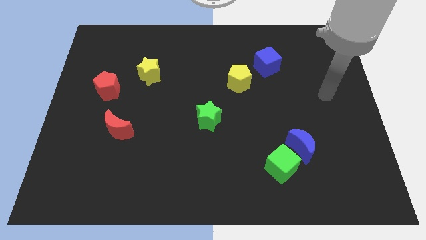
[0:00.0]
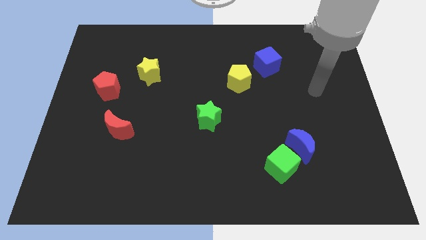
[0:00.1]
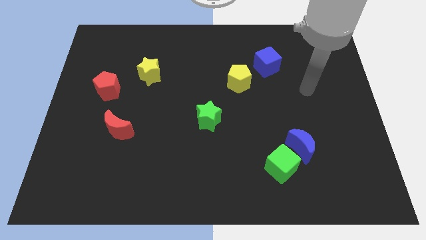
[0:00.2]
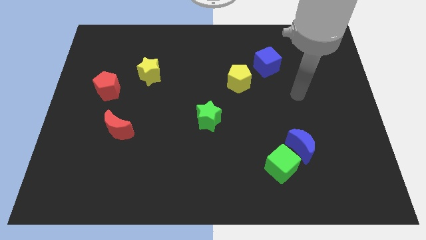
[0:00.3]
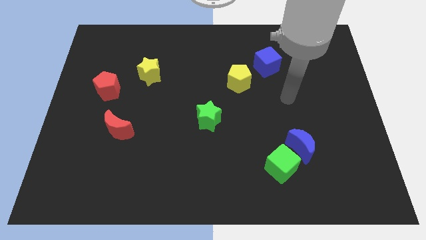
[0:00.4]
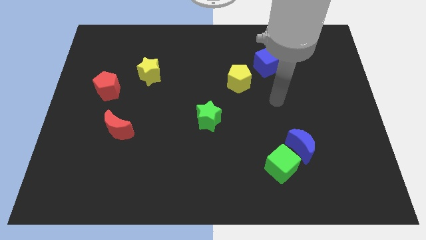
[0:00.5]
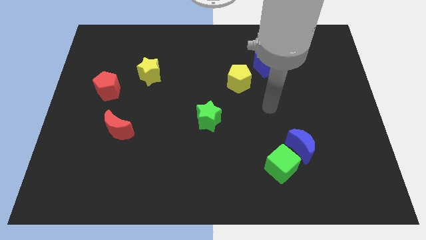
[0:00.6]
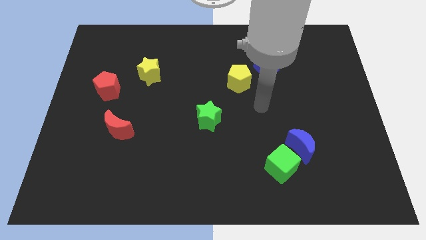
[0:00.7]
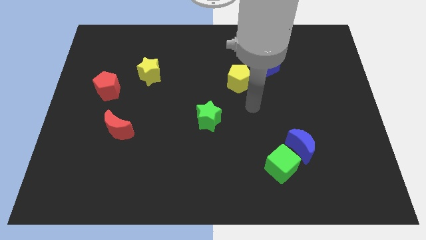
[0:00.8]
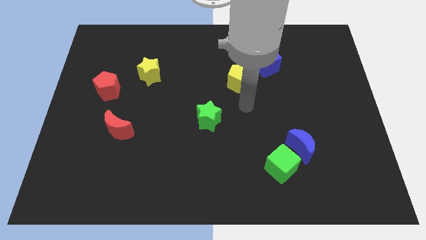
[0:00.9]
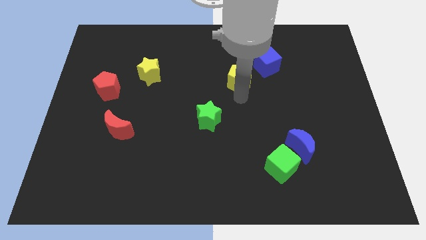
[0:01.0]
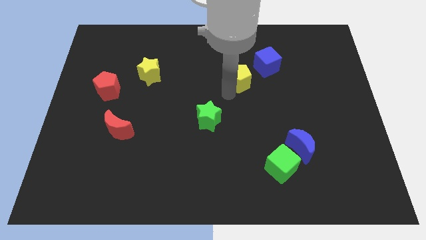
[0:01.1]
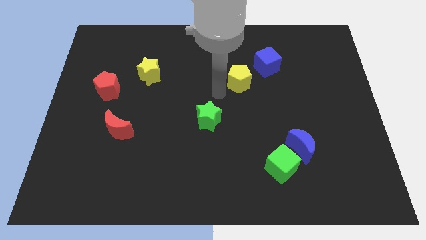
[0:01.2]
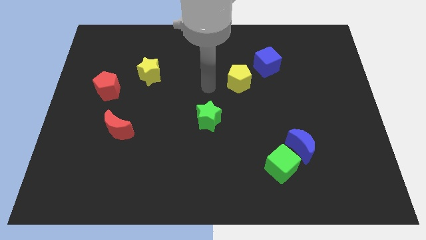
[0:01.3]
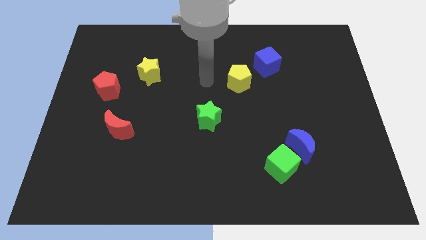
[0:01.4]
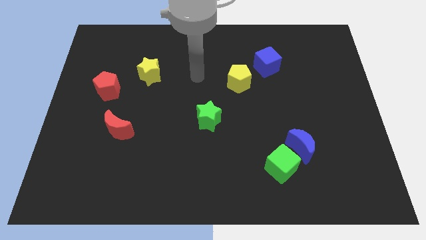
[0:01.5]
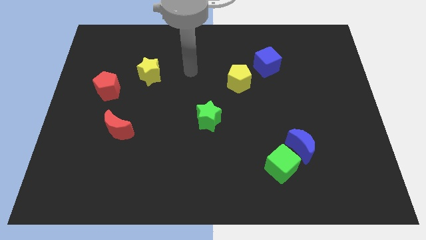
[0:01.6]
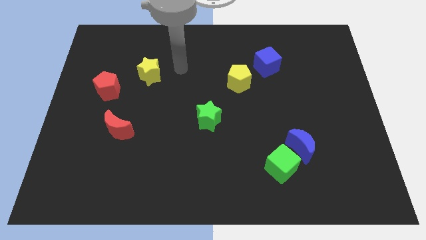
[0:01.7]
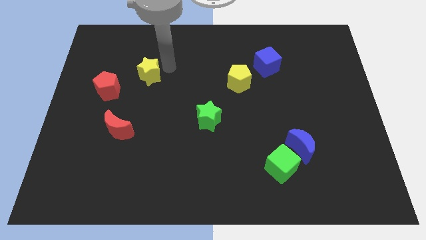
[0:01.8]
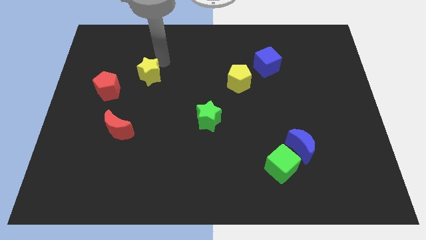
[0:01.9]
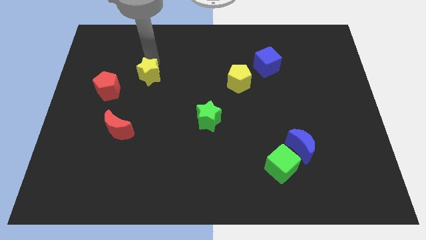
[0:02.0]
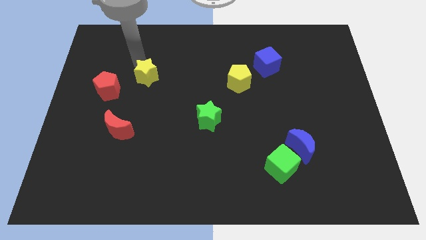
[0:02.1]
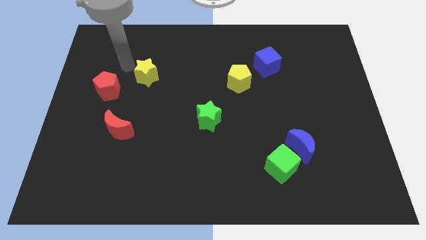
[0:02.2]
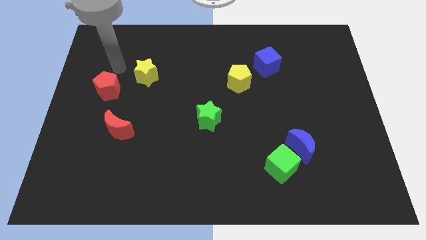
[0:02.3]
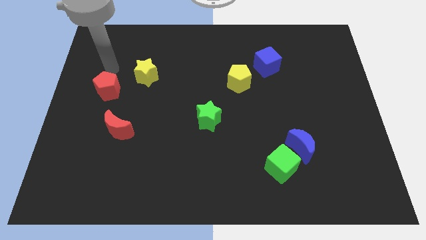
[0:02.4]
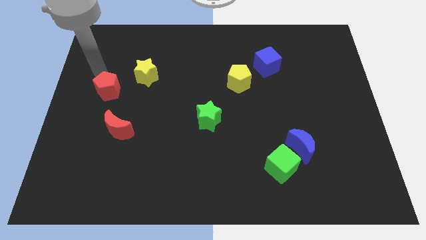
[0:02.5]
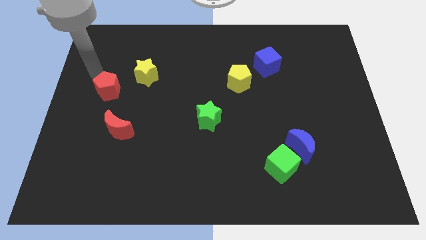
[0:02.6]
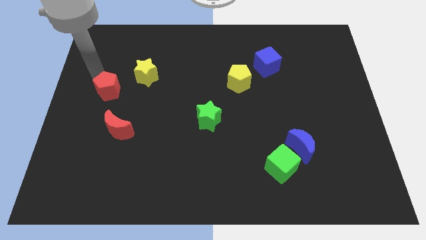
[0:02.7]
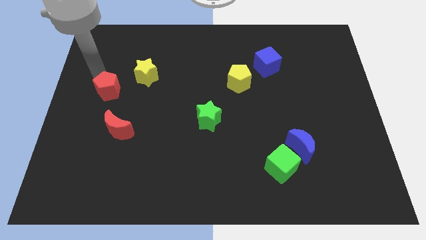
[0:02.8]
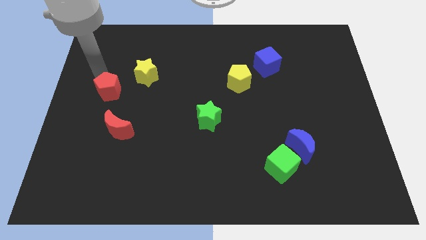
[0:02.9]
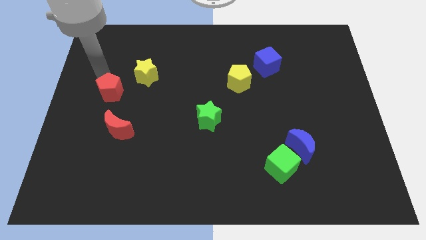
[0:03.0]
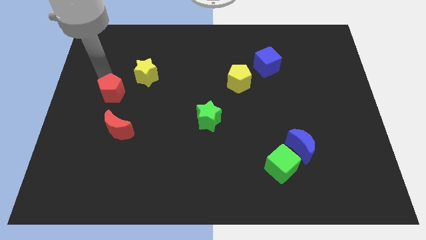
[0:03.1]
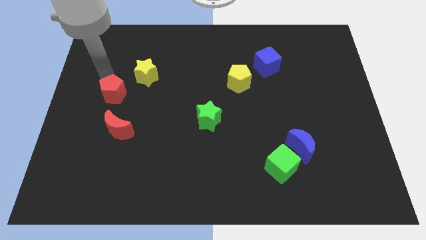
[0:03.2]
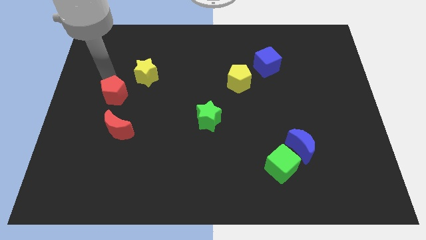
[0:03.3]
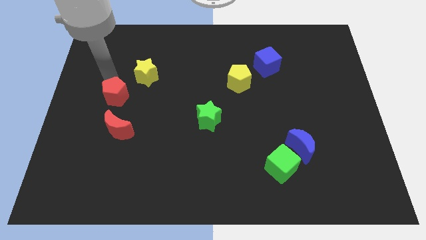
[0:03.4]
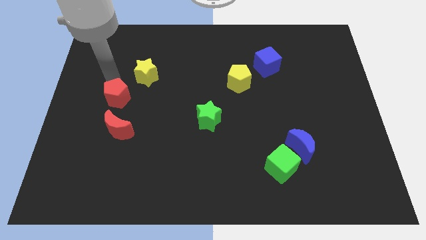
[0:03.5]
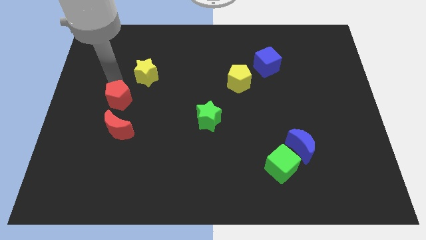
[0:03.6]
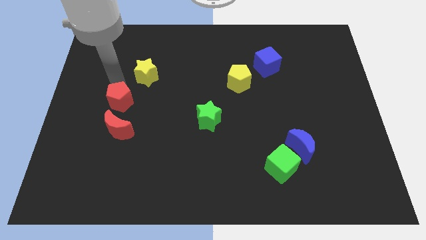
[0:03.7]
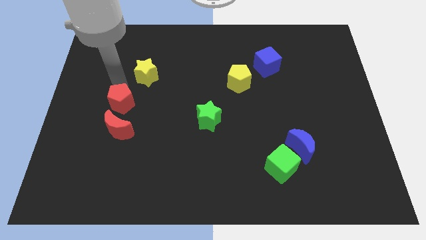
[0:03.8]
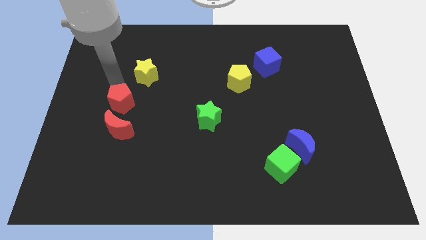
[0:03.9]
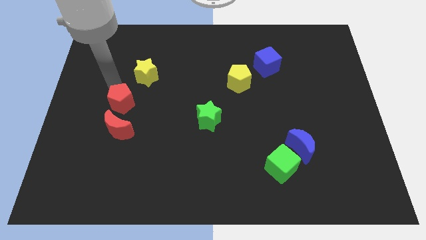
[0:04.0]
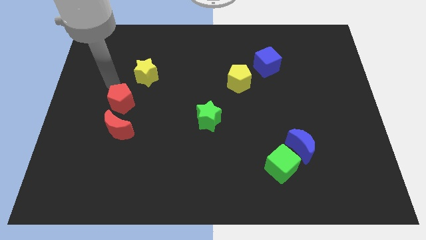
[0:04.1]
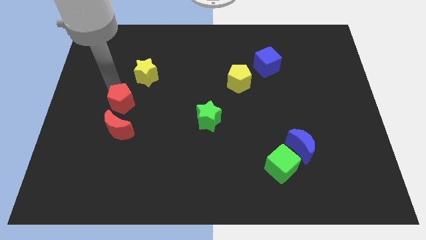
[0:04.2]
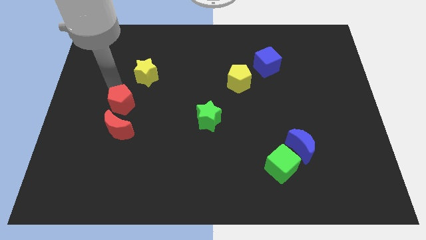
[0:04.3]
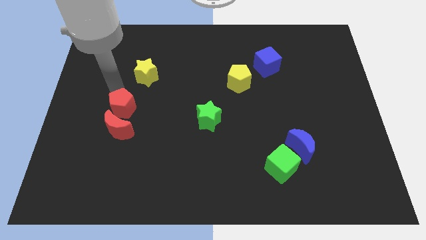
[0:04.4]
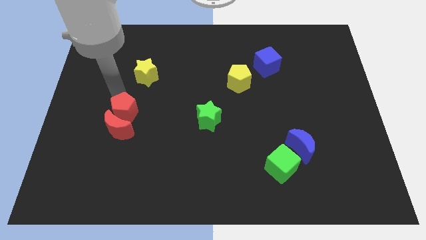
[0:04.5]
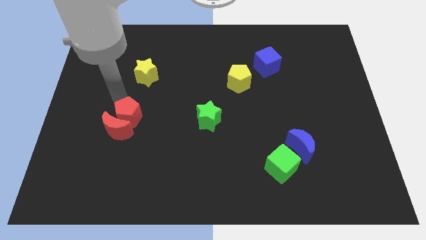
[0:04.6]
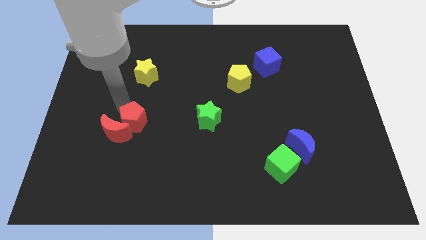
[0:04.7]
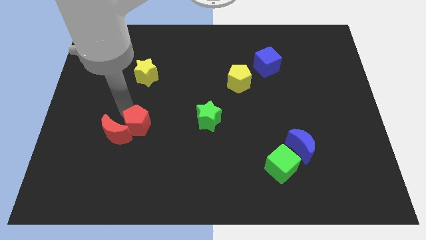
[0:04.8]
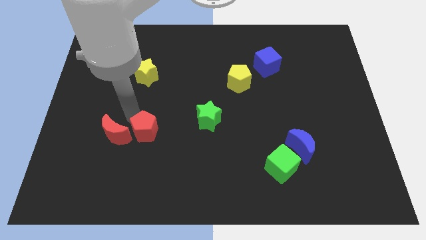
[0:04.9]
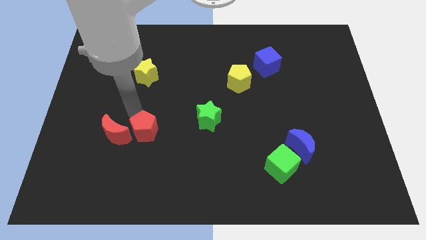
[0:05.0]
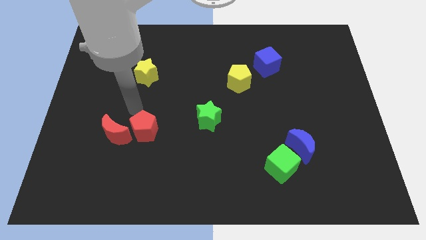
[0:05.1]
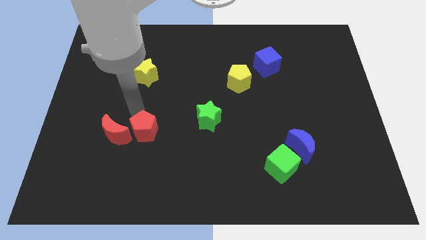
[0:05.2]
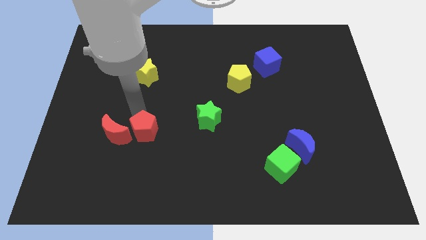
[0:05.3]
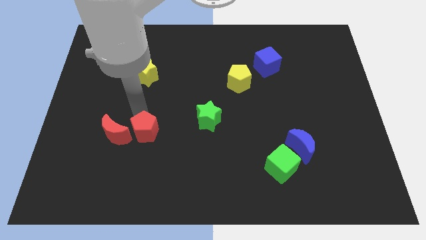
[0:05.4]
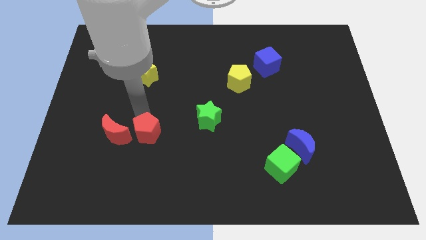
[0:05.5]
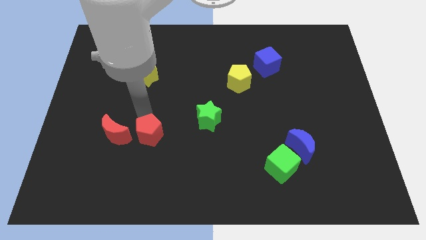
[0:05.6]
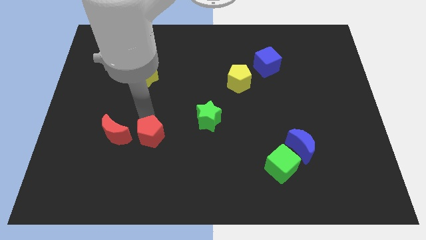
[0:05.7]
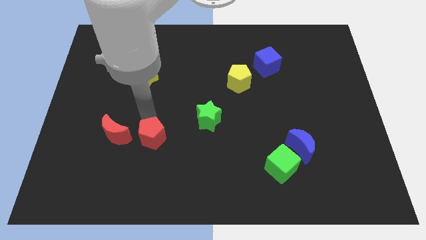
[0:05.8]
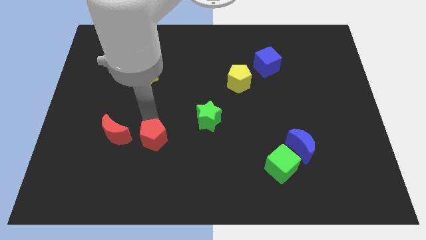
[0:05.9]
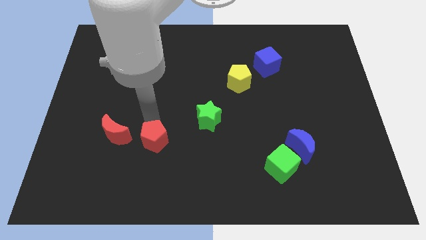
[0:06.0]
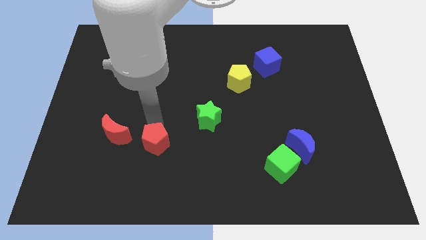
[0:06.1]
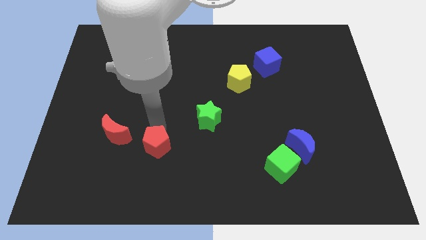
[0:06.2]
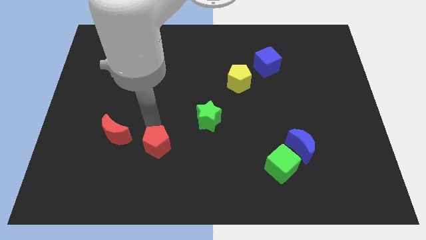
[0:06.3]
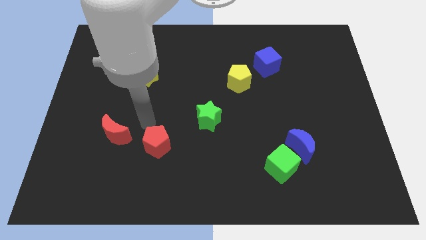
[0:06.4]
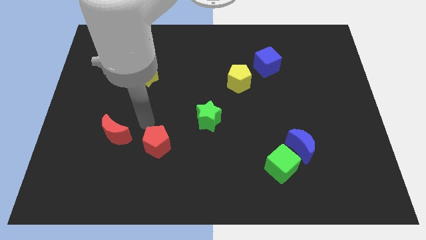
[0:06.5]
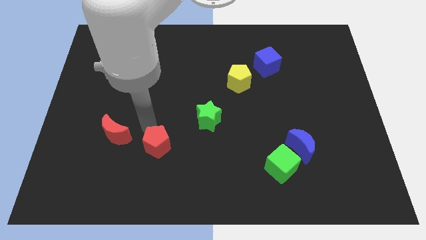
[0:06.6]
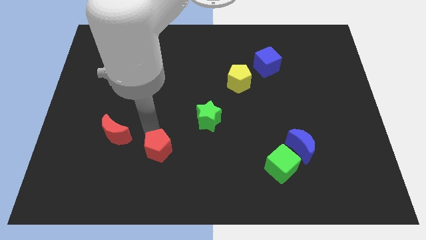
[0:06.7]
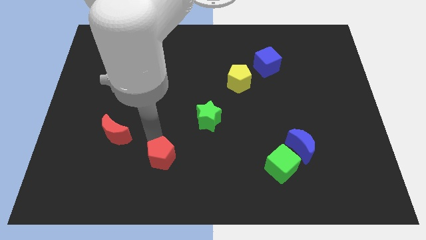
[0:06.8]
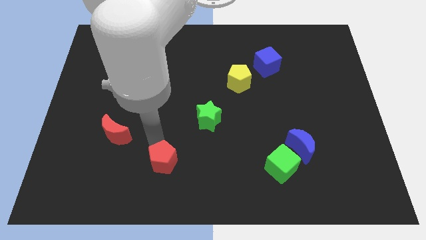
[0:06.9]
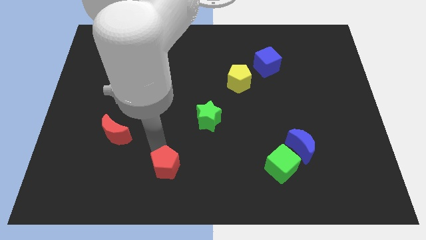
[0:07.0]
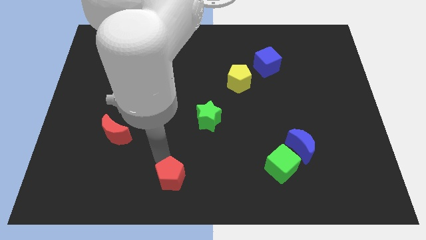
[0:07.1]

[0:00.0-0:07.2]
slide the red pentagon to the bottom
